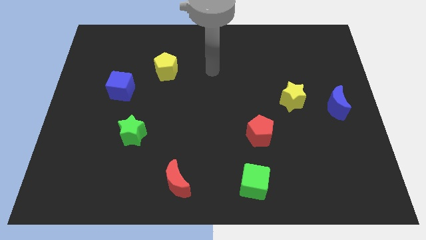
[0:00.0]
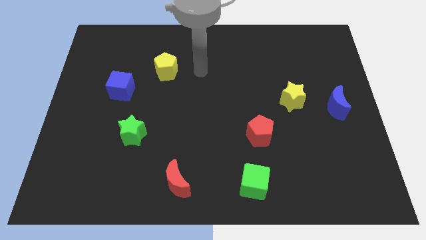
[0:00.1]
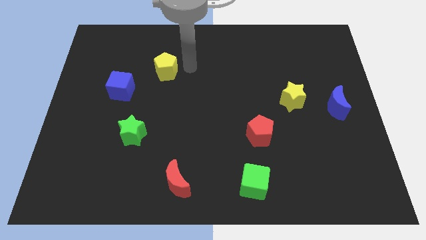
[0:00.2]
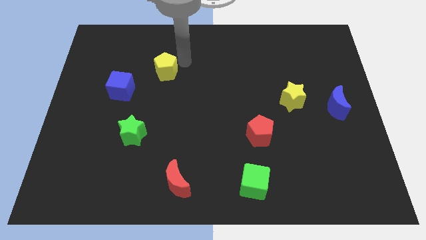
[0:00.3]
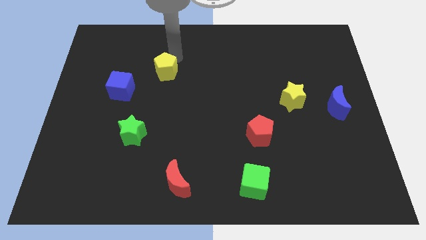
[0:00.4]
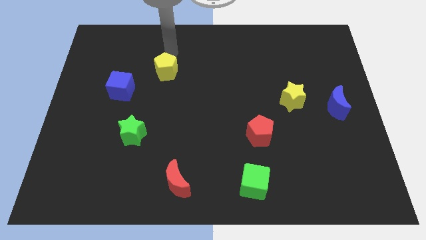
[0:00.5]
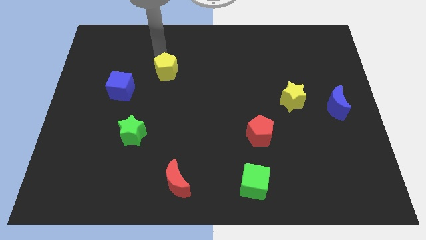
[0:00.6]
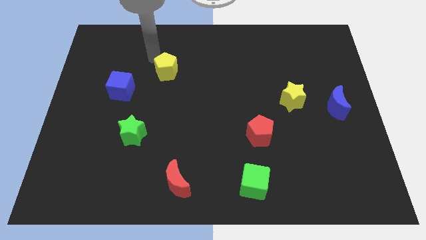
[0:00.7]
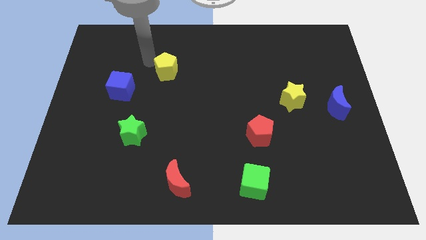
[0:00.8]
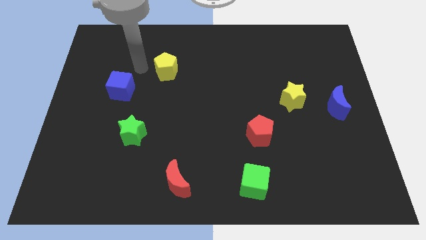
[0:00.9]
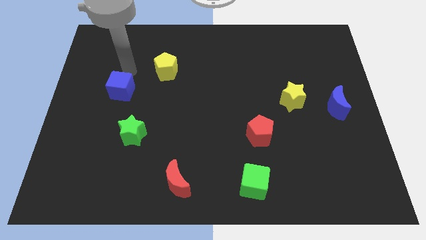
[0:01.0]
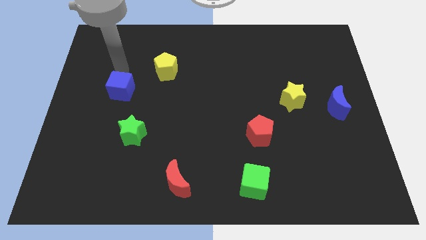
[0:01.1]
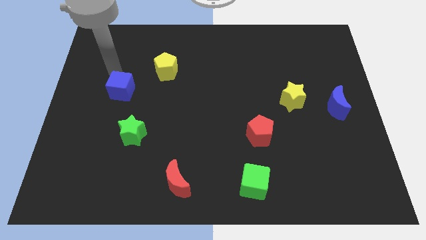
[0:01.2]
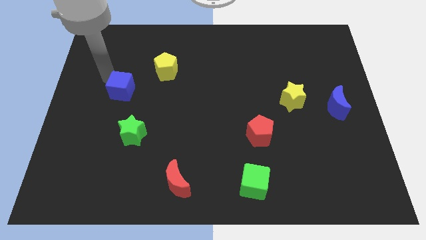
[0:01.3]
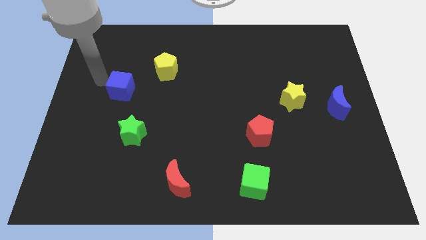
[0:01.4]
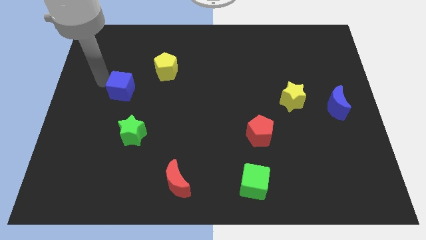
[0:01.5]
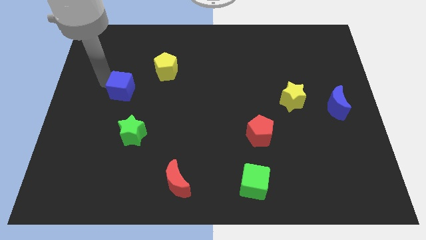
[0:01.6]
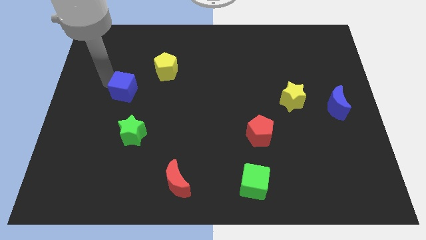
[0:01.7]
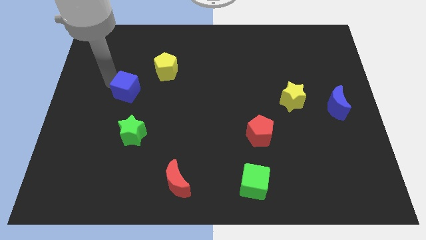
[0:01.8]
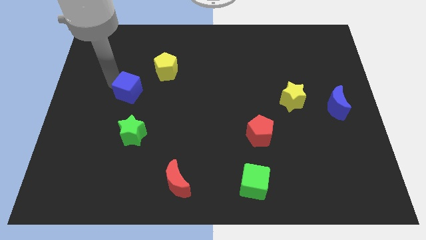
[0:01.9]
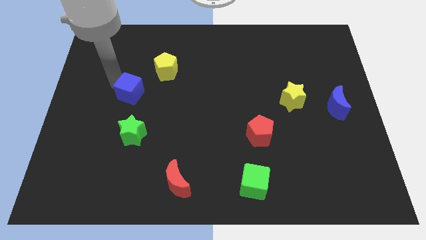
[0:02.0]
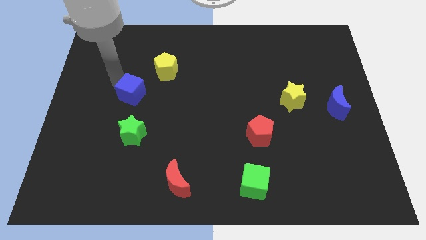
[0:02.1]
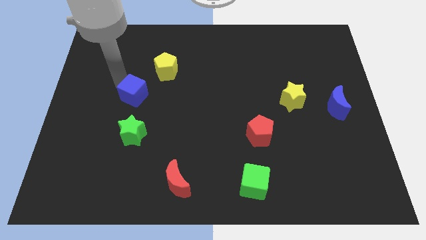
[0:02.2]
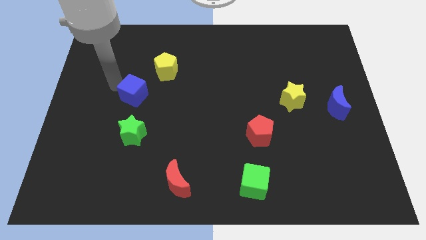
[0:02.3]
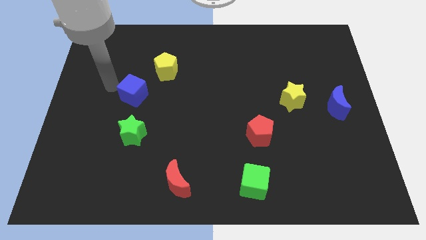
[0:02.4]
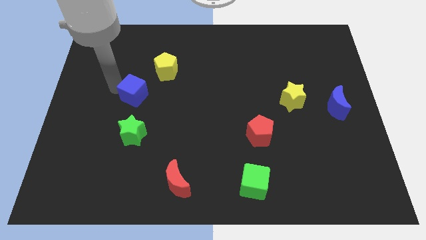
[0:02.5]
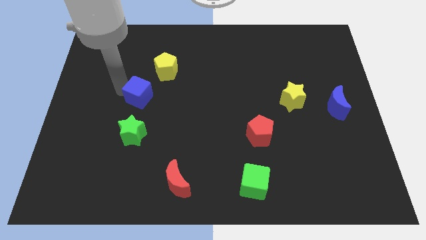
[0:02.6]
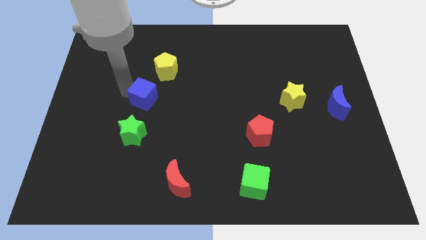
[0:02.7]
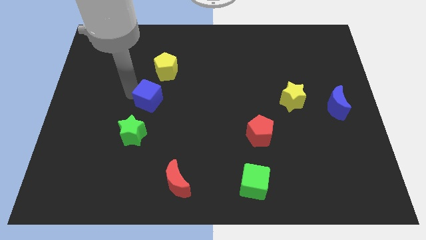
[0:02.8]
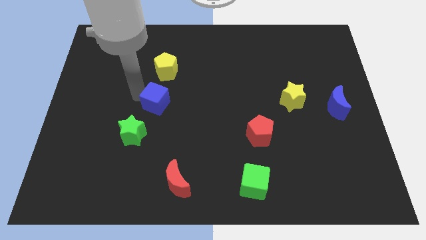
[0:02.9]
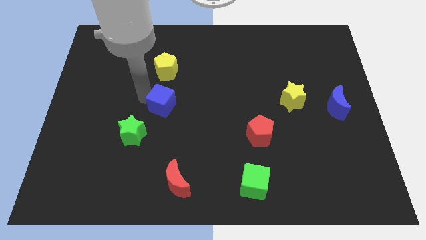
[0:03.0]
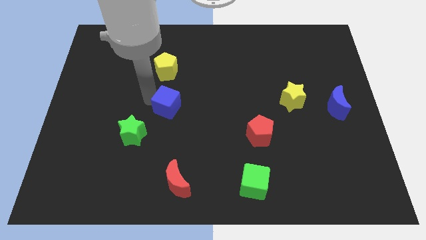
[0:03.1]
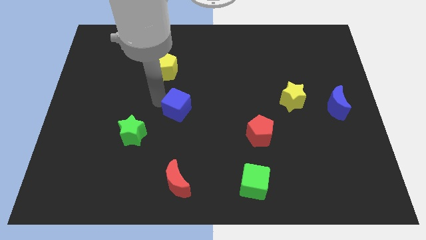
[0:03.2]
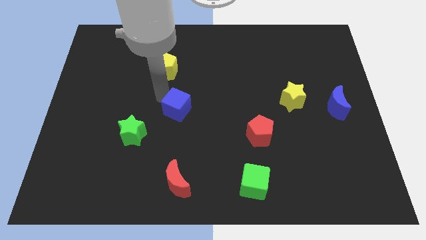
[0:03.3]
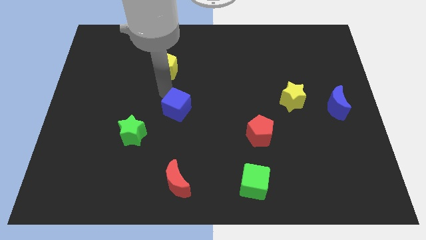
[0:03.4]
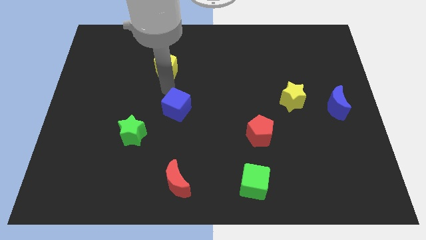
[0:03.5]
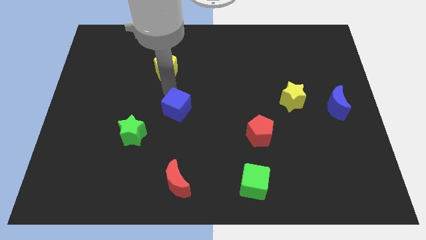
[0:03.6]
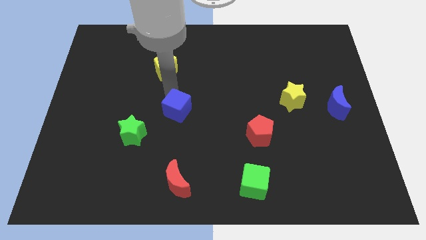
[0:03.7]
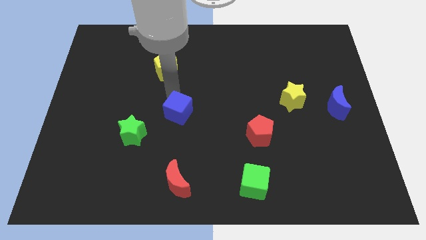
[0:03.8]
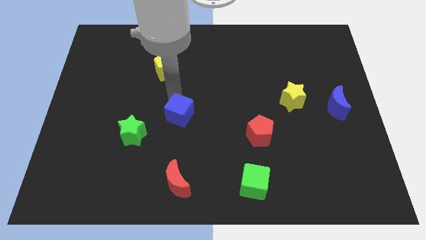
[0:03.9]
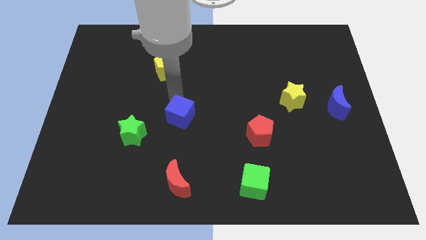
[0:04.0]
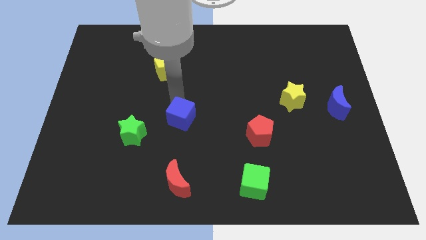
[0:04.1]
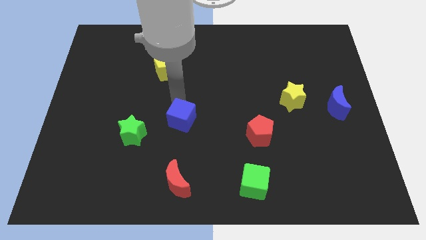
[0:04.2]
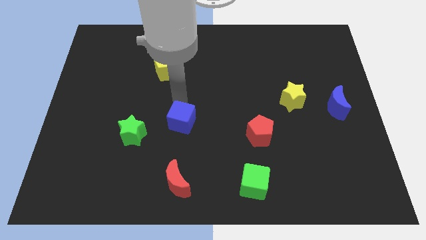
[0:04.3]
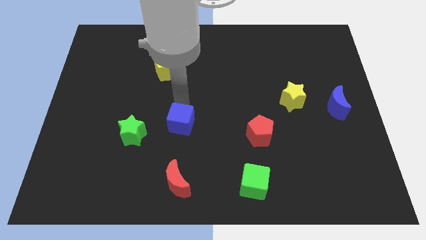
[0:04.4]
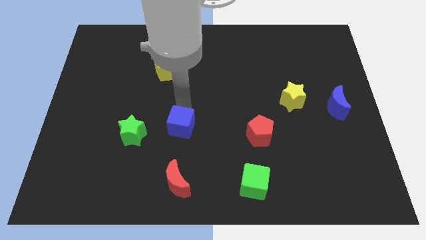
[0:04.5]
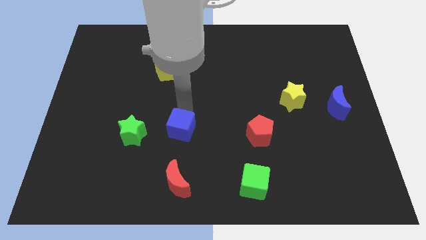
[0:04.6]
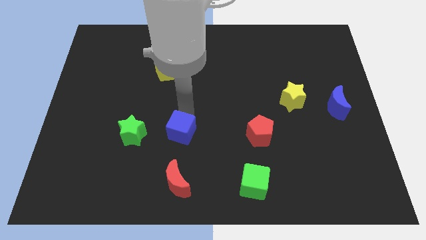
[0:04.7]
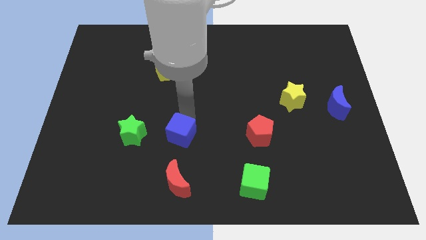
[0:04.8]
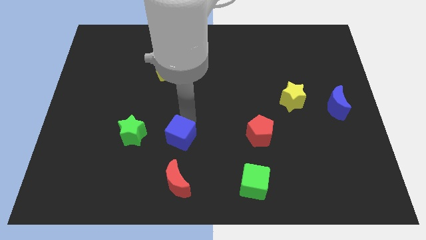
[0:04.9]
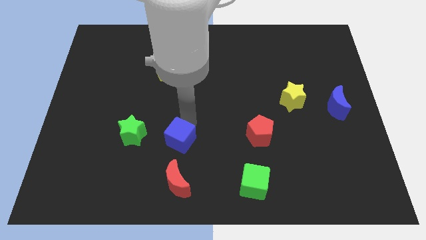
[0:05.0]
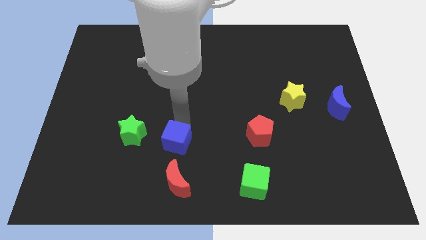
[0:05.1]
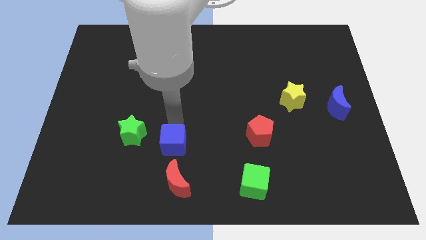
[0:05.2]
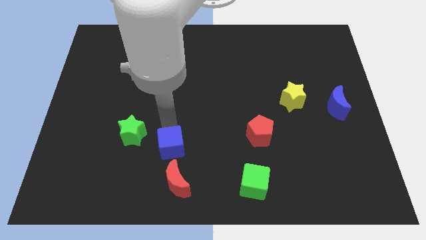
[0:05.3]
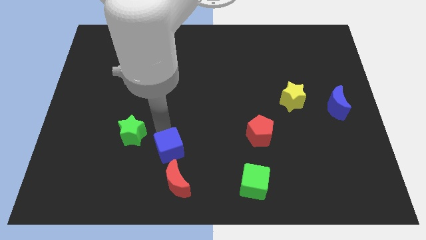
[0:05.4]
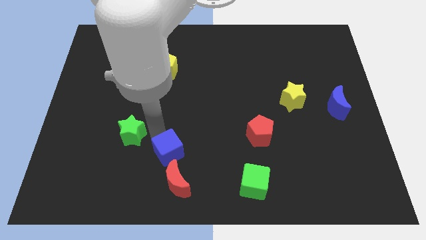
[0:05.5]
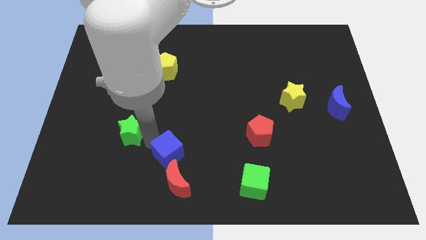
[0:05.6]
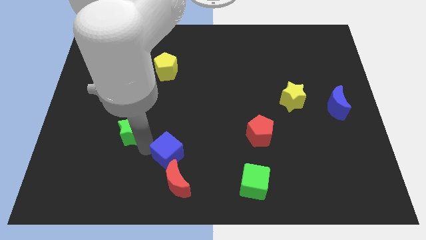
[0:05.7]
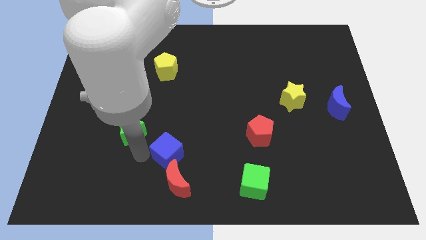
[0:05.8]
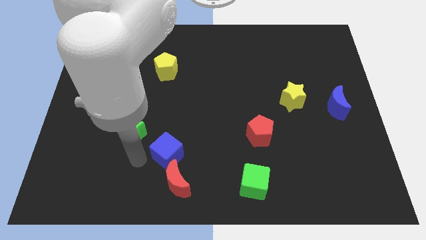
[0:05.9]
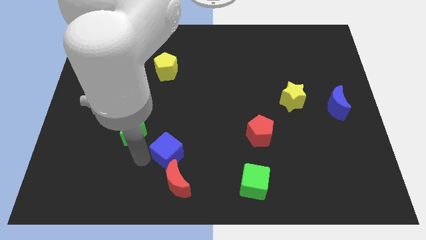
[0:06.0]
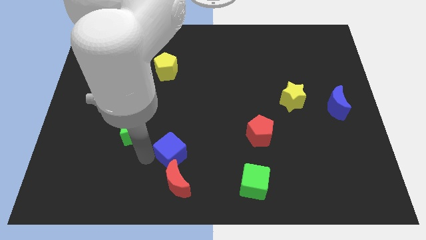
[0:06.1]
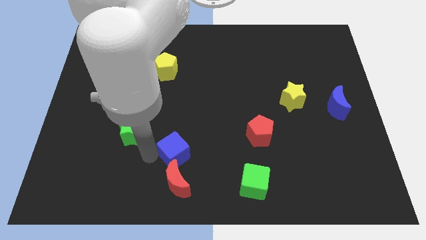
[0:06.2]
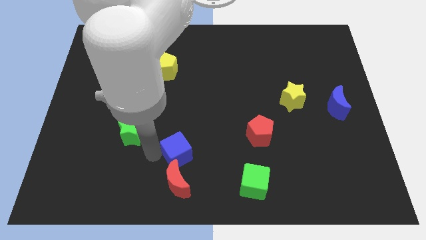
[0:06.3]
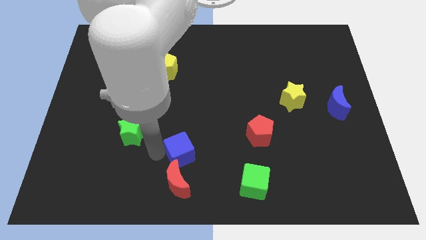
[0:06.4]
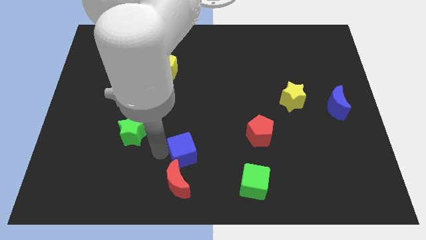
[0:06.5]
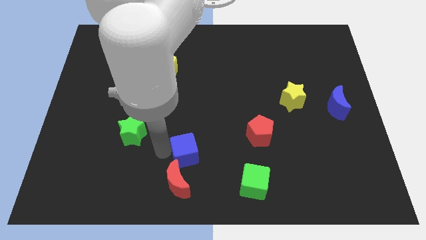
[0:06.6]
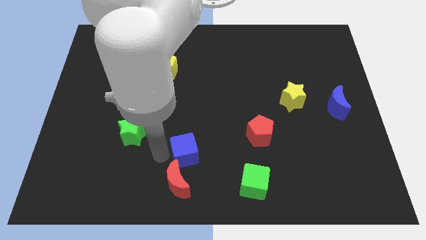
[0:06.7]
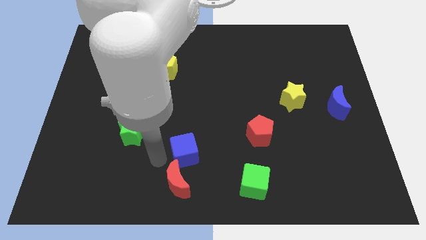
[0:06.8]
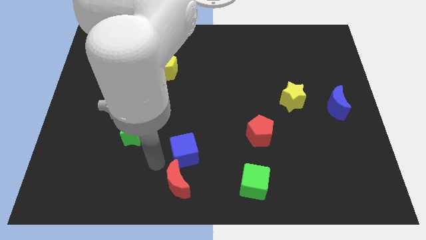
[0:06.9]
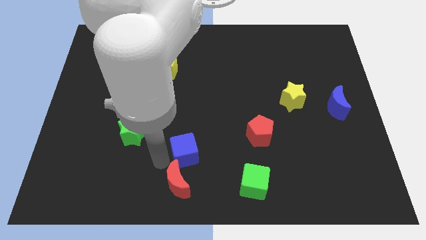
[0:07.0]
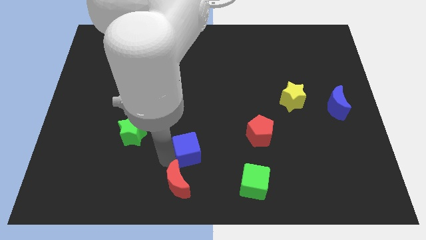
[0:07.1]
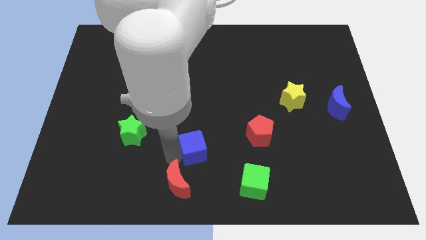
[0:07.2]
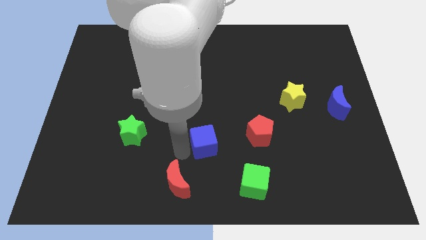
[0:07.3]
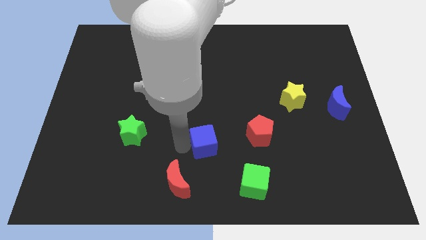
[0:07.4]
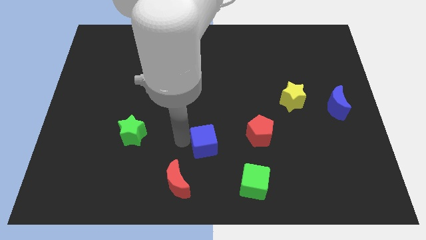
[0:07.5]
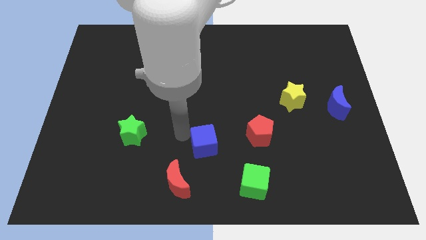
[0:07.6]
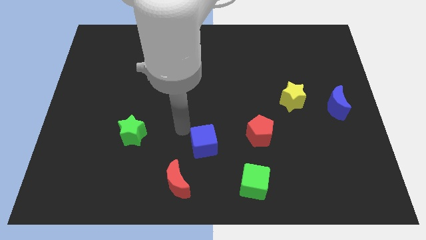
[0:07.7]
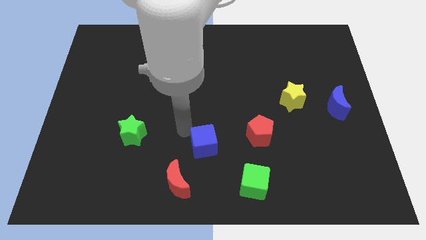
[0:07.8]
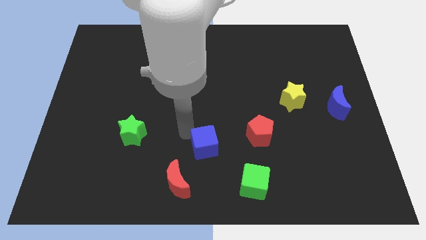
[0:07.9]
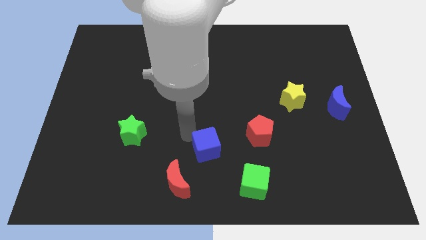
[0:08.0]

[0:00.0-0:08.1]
move the blue cube to the top left side of the green cube
